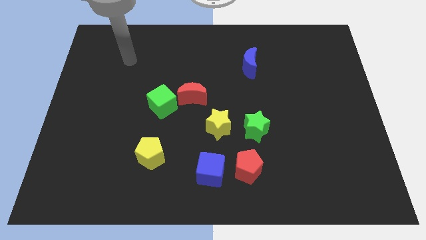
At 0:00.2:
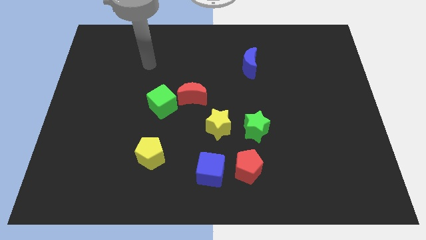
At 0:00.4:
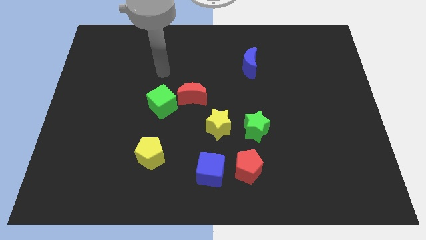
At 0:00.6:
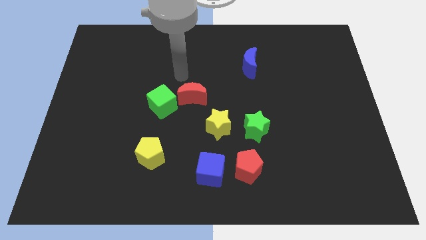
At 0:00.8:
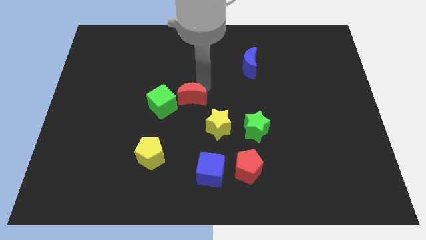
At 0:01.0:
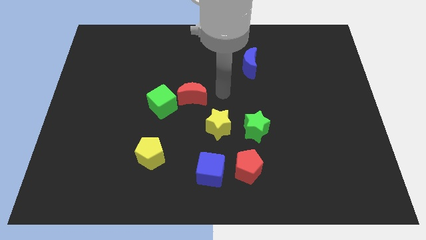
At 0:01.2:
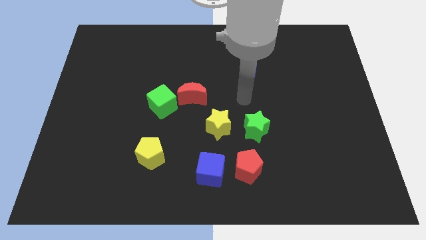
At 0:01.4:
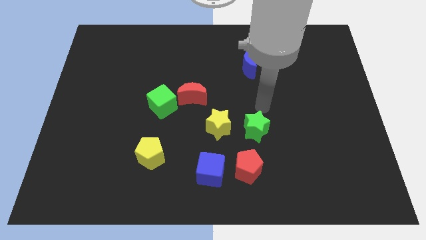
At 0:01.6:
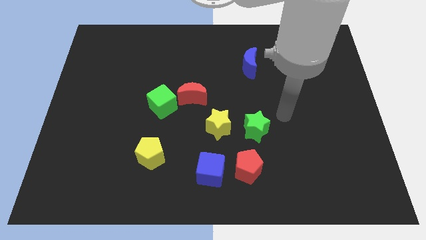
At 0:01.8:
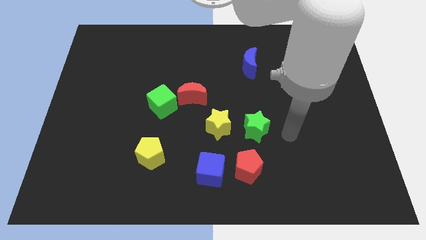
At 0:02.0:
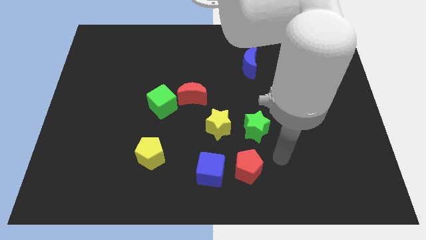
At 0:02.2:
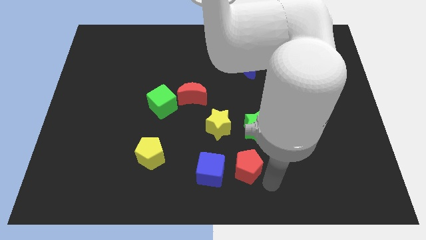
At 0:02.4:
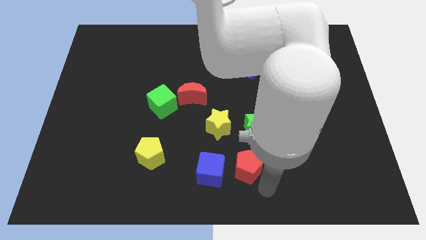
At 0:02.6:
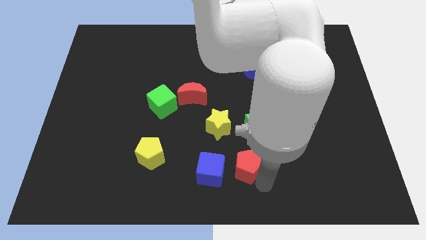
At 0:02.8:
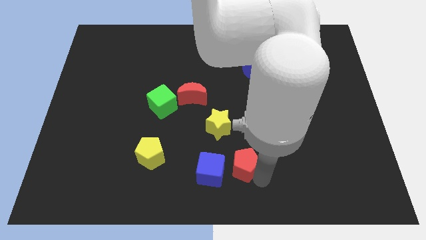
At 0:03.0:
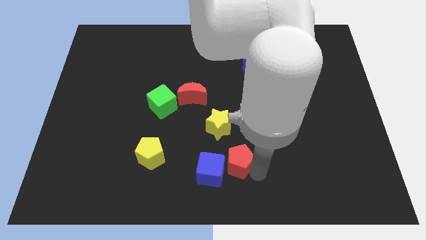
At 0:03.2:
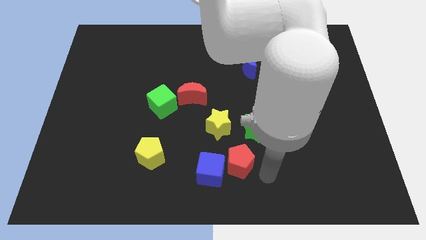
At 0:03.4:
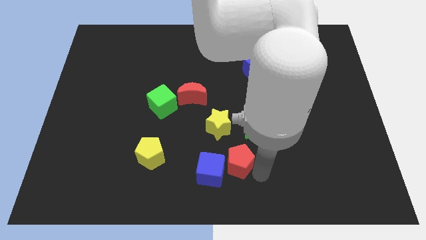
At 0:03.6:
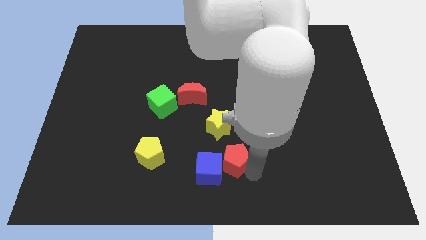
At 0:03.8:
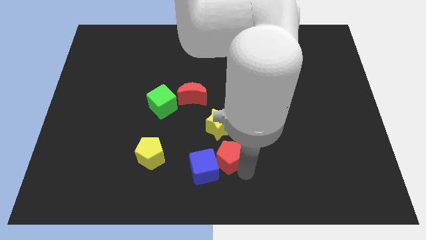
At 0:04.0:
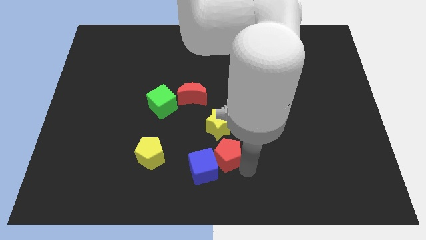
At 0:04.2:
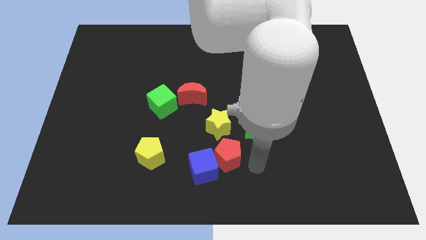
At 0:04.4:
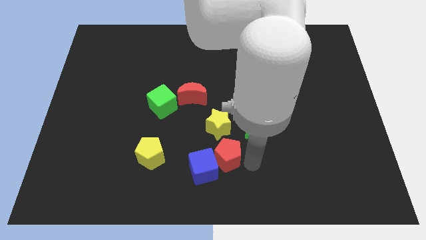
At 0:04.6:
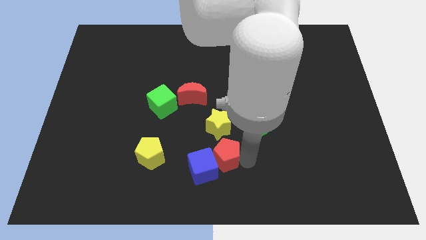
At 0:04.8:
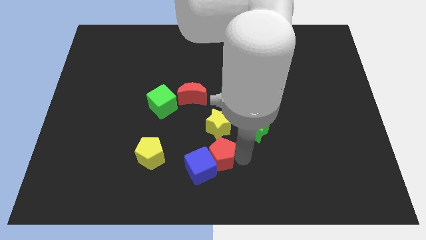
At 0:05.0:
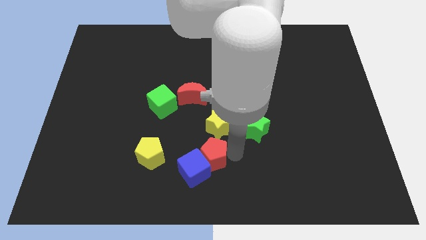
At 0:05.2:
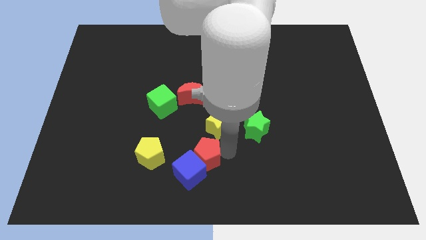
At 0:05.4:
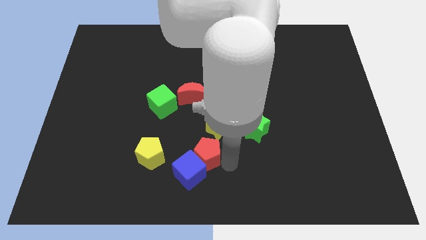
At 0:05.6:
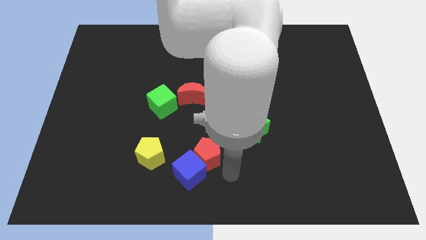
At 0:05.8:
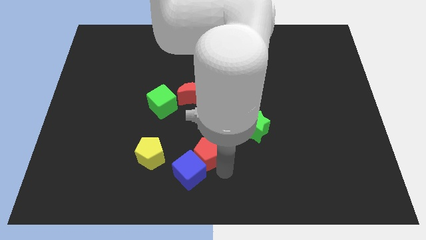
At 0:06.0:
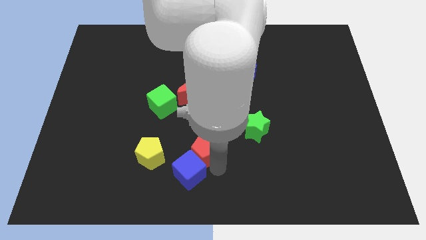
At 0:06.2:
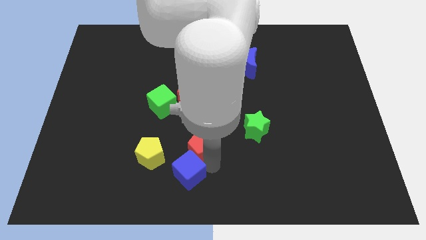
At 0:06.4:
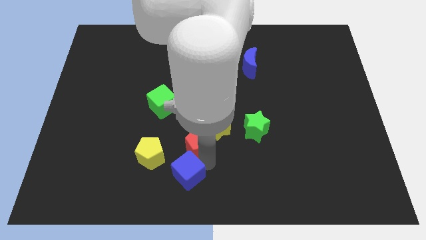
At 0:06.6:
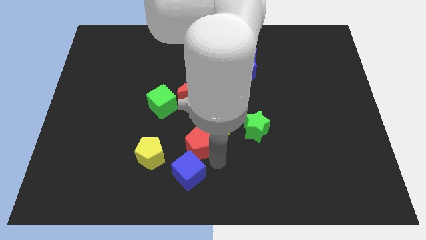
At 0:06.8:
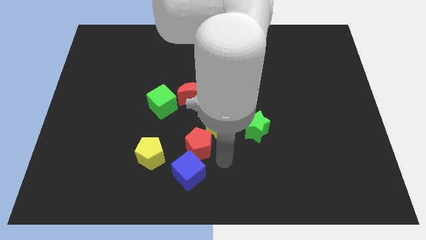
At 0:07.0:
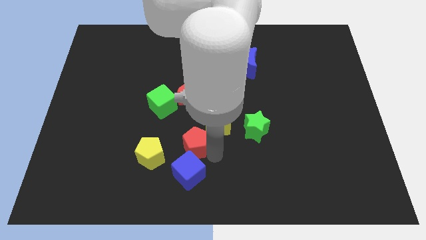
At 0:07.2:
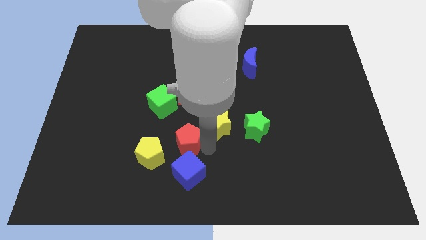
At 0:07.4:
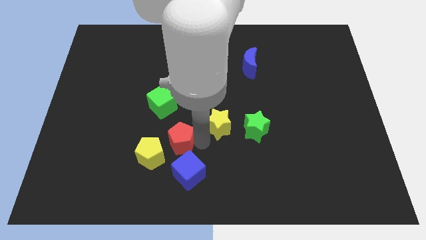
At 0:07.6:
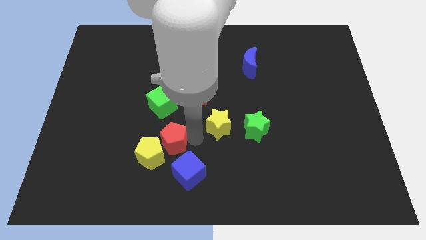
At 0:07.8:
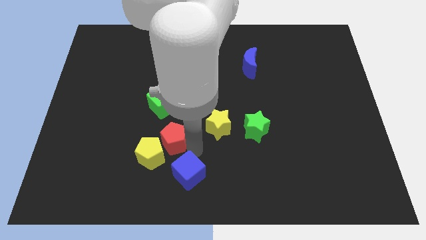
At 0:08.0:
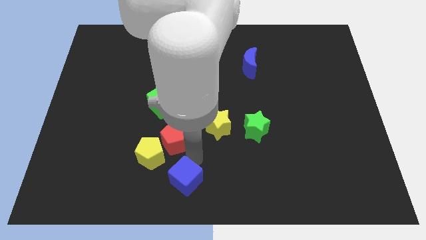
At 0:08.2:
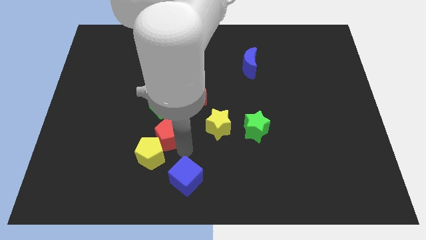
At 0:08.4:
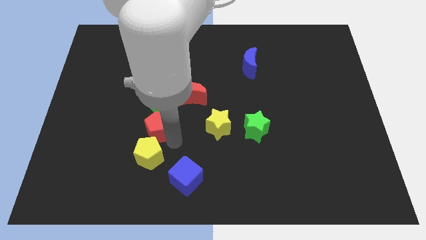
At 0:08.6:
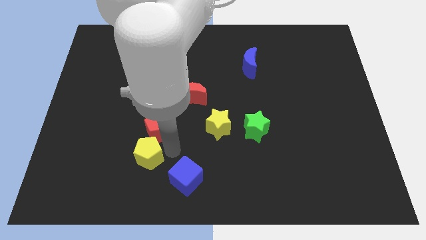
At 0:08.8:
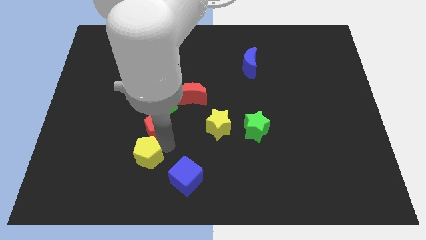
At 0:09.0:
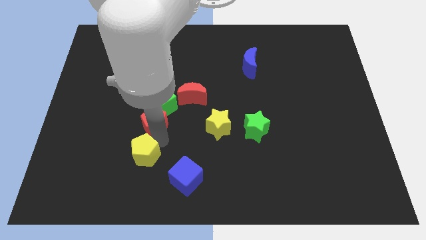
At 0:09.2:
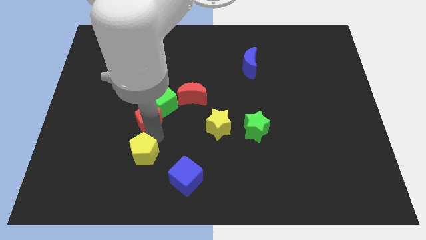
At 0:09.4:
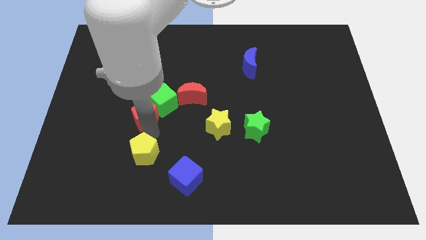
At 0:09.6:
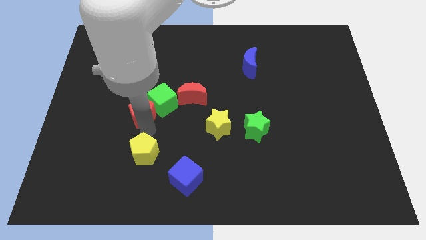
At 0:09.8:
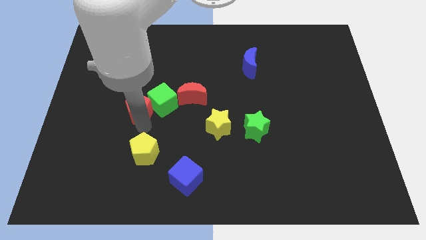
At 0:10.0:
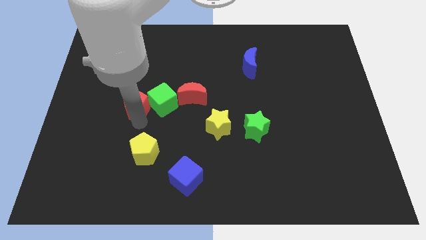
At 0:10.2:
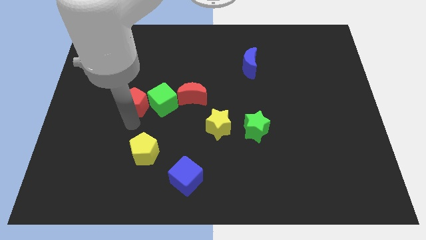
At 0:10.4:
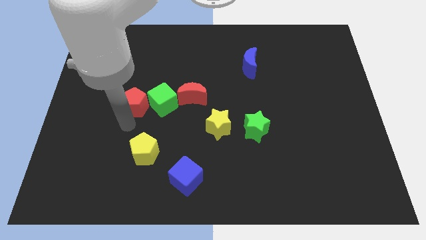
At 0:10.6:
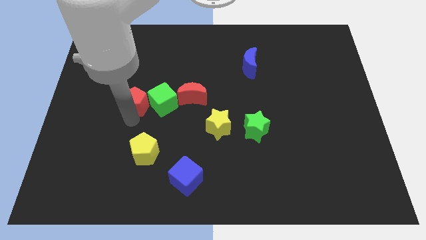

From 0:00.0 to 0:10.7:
move the red pentagon diagonally up and to the left of the green cube
